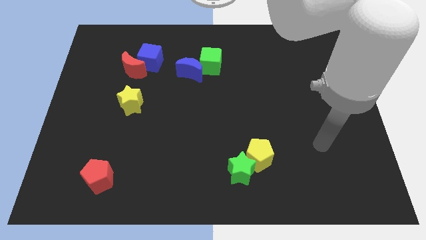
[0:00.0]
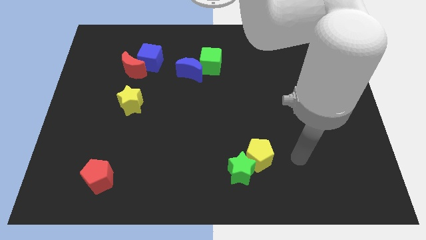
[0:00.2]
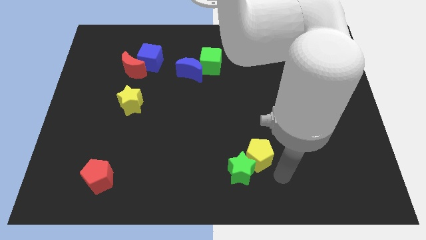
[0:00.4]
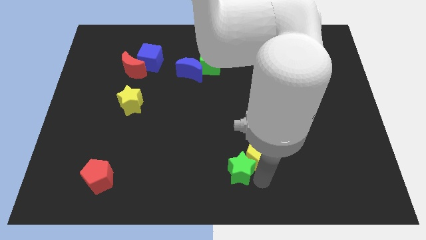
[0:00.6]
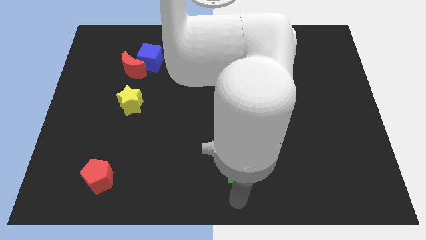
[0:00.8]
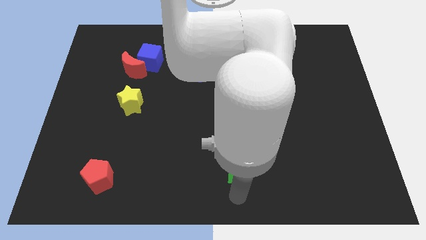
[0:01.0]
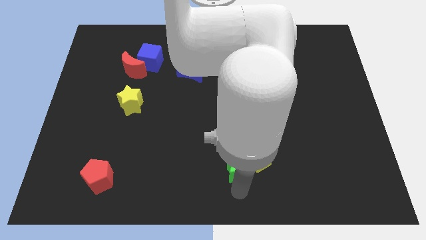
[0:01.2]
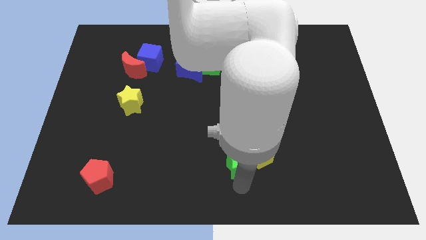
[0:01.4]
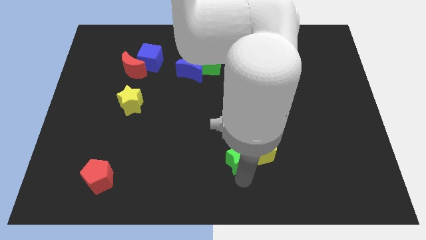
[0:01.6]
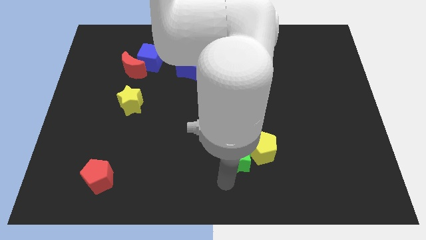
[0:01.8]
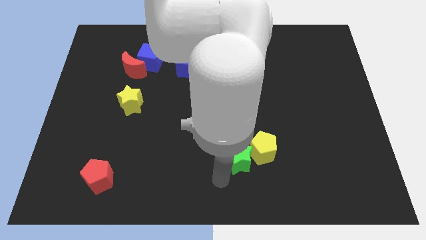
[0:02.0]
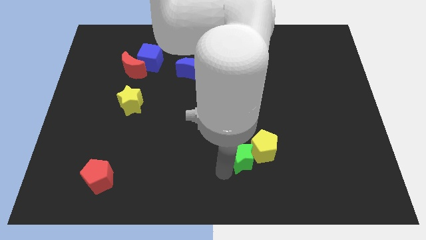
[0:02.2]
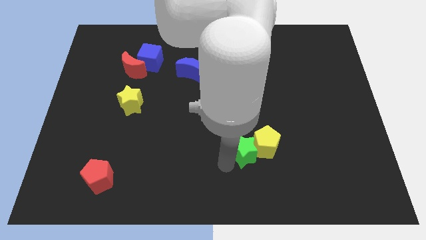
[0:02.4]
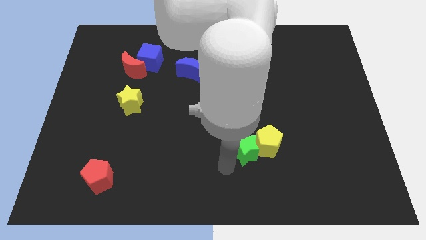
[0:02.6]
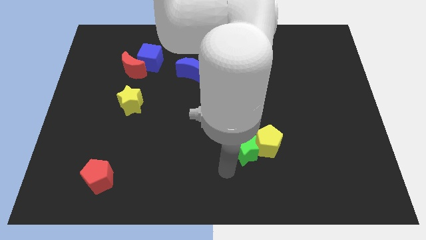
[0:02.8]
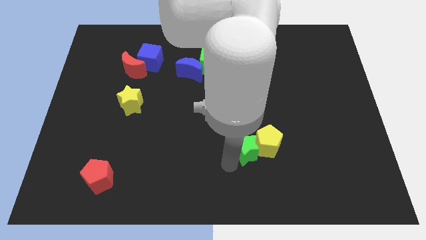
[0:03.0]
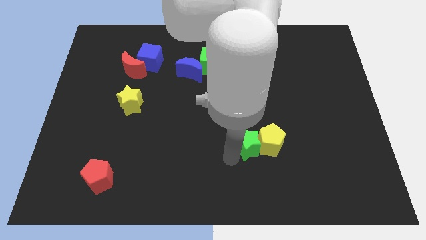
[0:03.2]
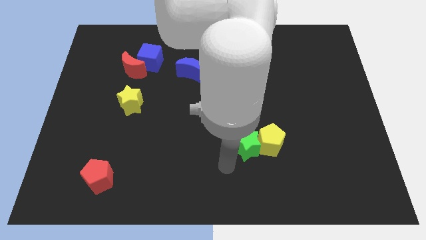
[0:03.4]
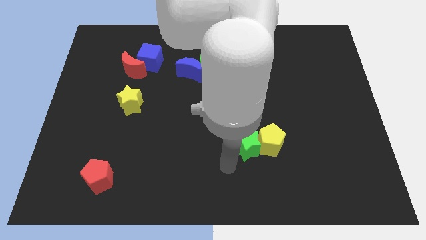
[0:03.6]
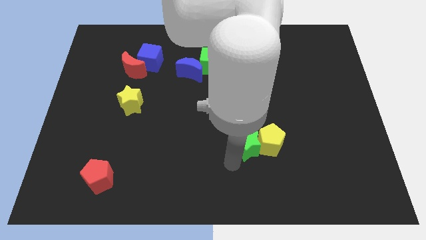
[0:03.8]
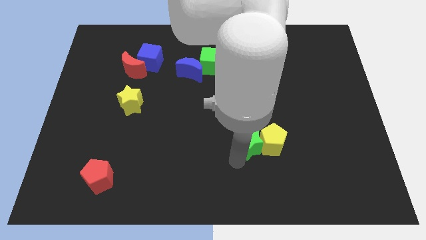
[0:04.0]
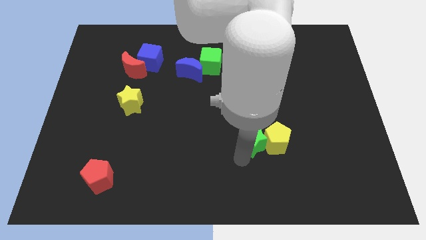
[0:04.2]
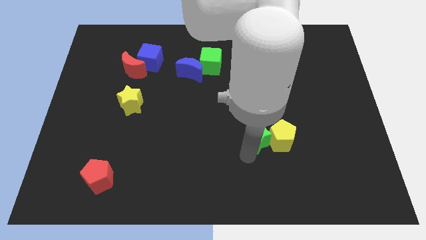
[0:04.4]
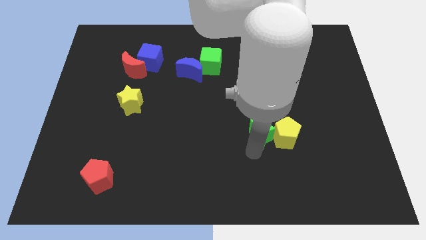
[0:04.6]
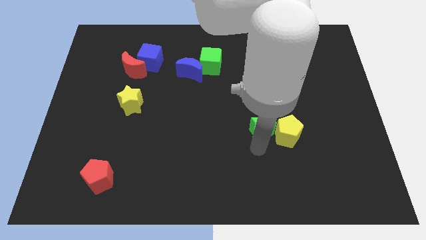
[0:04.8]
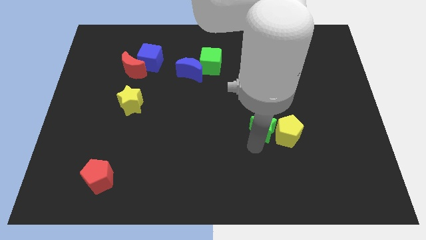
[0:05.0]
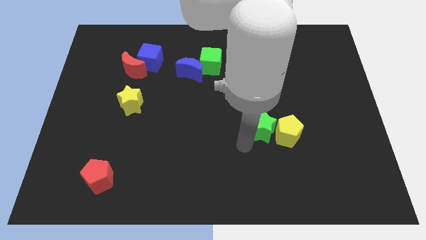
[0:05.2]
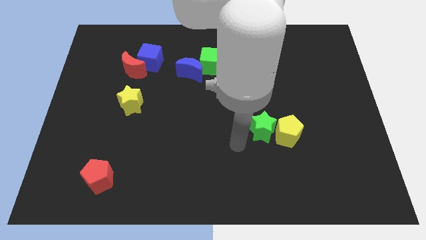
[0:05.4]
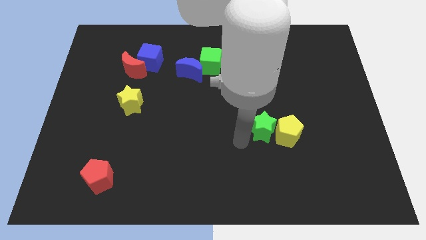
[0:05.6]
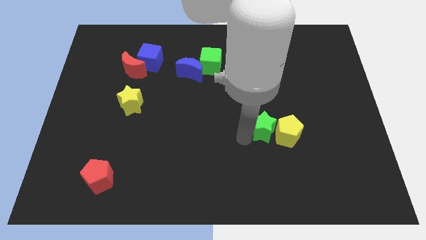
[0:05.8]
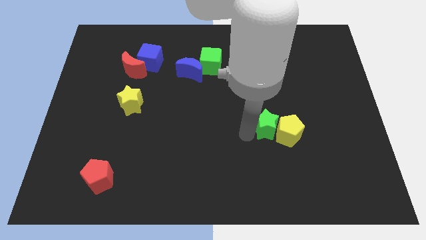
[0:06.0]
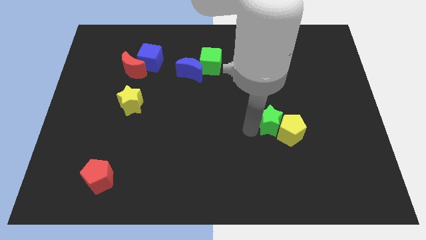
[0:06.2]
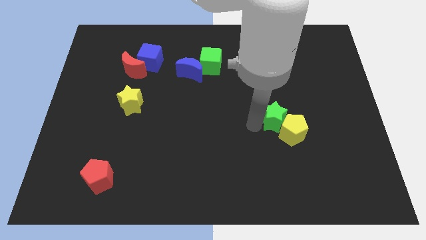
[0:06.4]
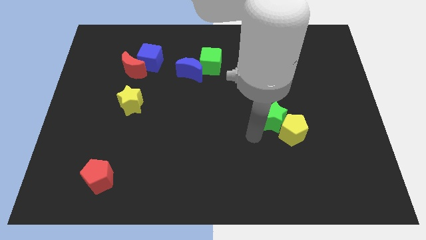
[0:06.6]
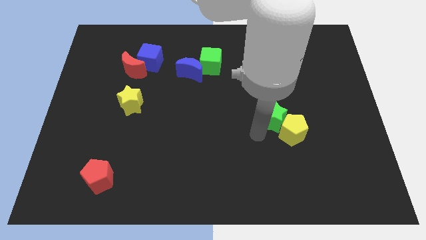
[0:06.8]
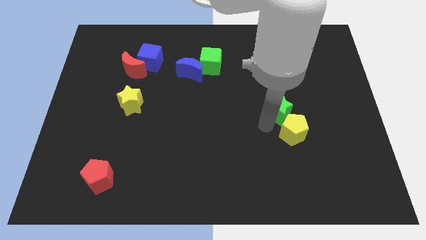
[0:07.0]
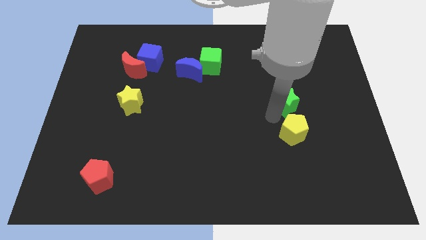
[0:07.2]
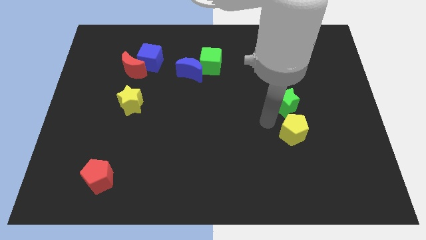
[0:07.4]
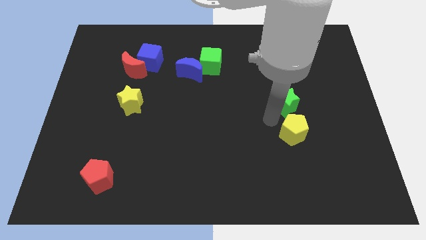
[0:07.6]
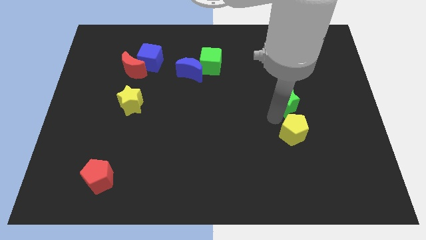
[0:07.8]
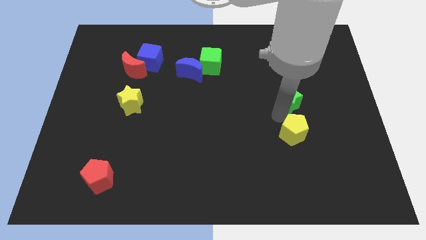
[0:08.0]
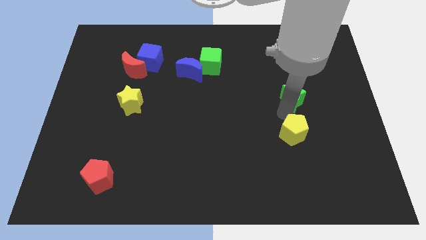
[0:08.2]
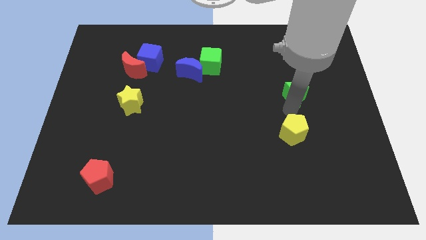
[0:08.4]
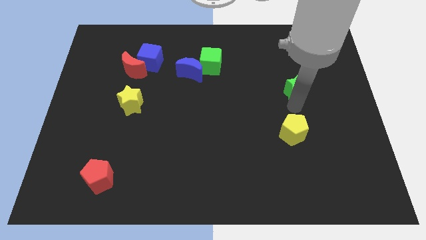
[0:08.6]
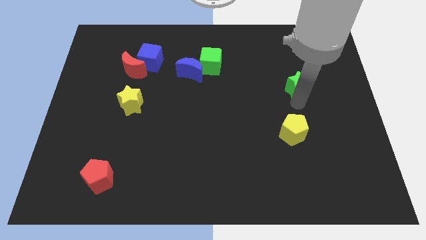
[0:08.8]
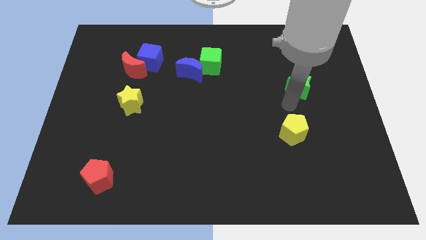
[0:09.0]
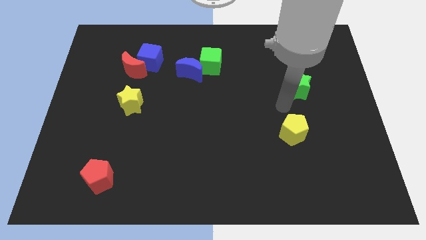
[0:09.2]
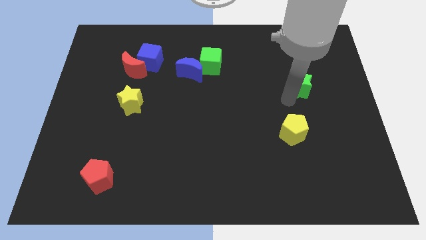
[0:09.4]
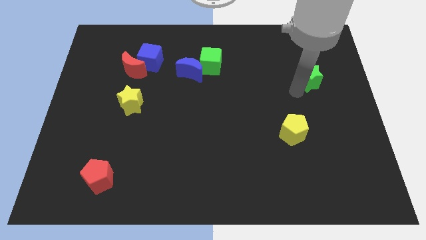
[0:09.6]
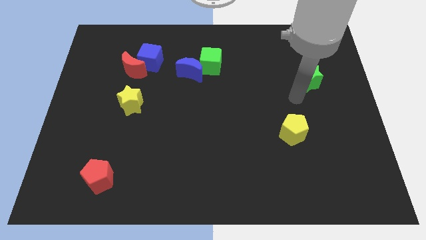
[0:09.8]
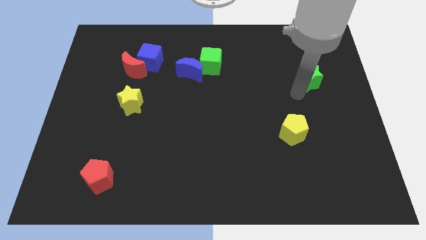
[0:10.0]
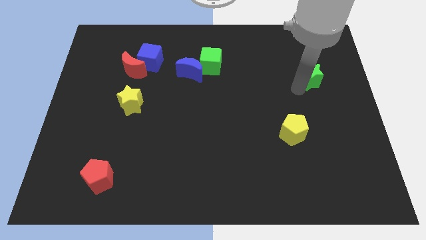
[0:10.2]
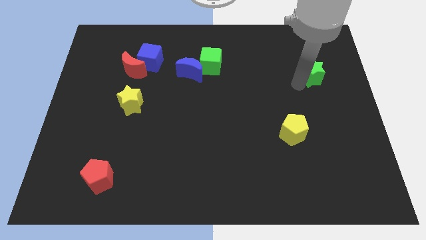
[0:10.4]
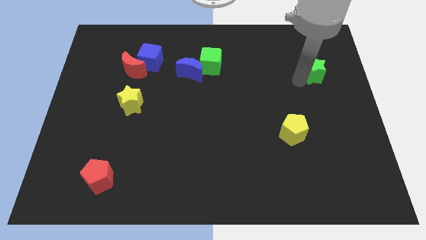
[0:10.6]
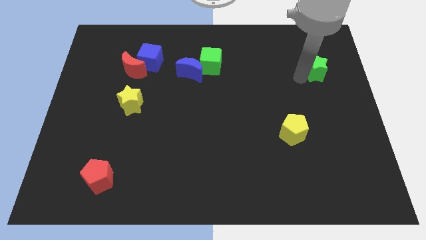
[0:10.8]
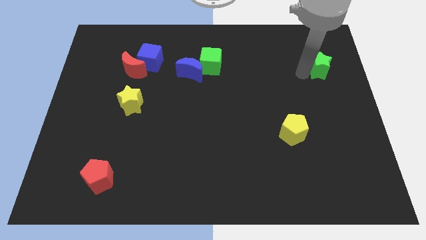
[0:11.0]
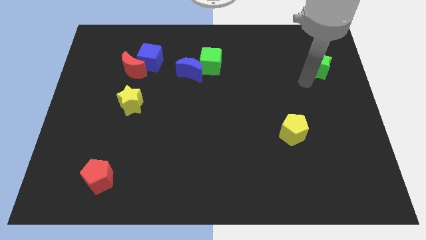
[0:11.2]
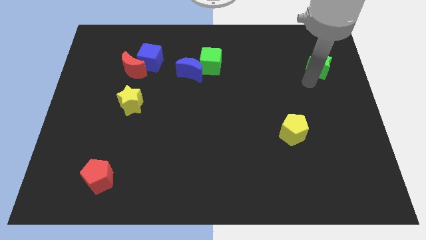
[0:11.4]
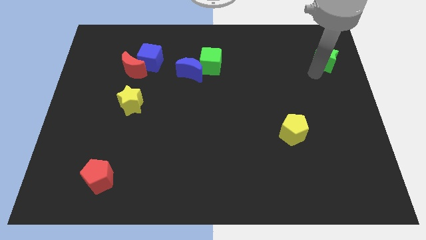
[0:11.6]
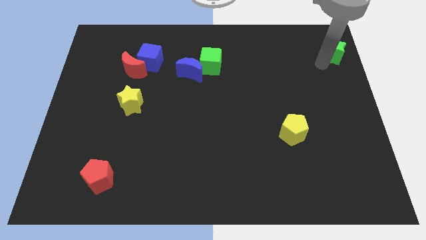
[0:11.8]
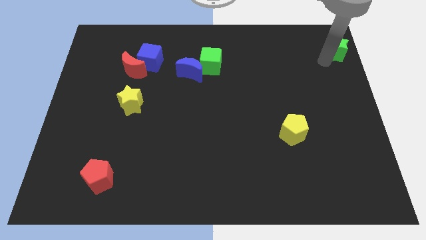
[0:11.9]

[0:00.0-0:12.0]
slide the green star to the upper right corner

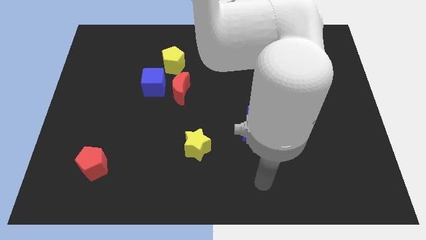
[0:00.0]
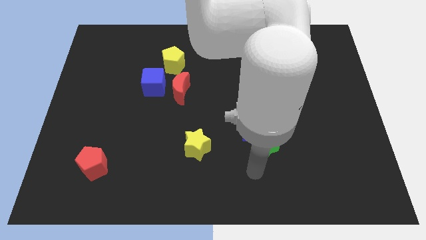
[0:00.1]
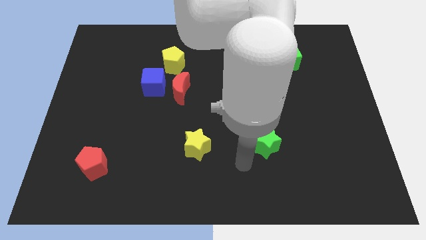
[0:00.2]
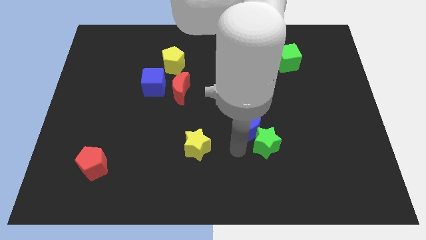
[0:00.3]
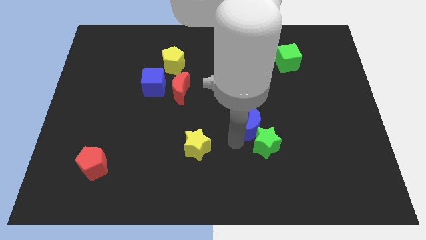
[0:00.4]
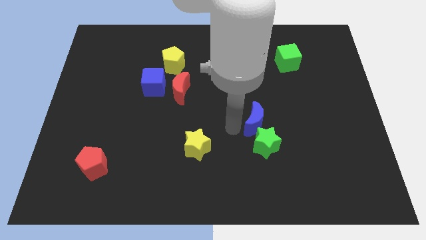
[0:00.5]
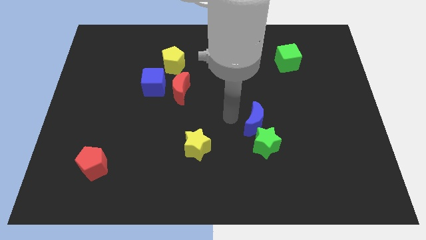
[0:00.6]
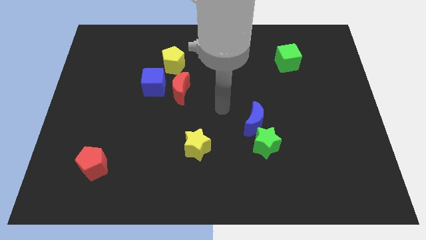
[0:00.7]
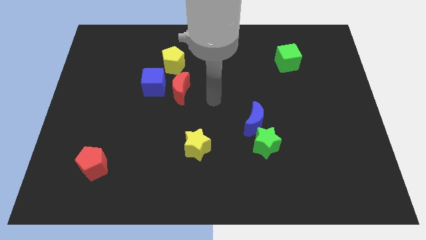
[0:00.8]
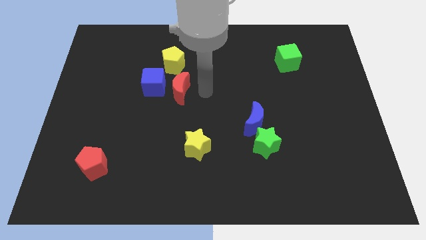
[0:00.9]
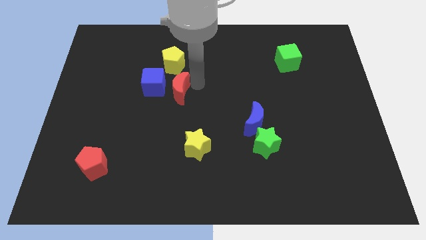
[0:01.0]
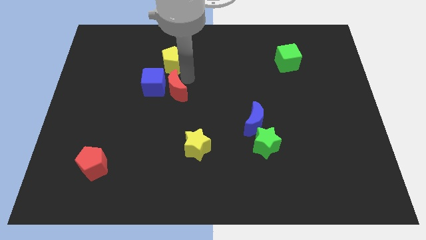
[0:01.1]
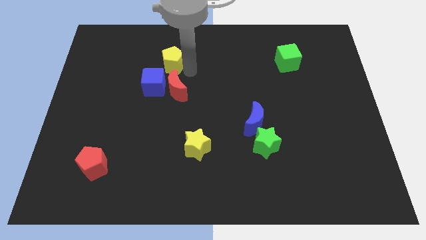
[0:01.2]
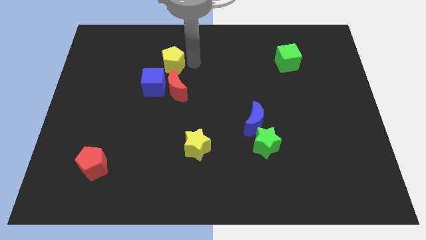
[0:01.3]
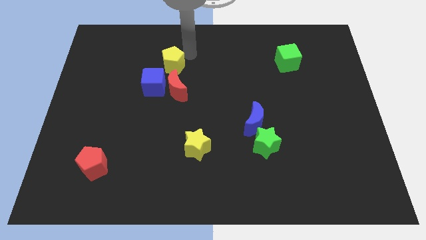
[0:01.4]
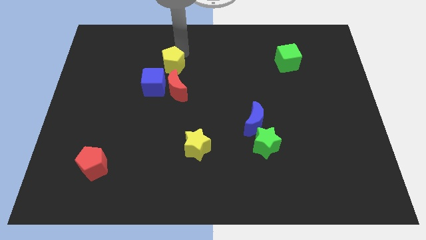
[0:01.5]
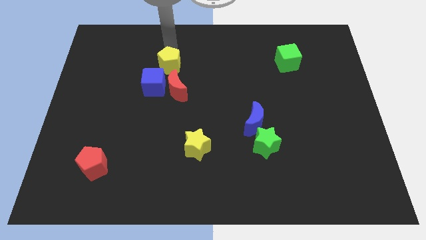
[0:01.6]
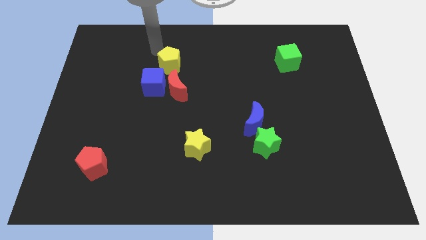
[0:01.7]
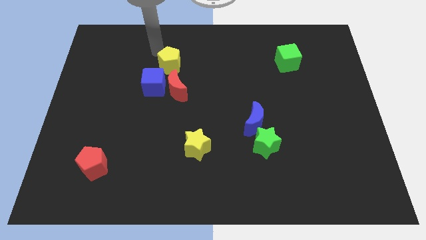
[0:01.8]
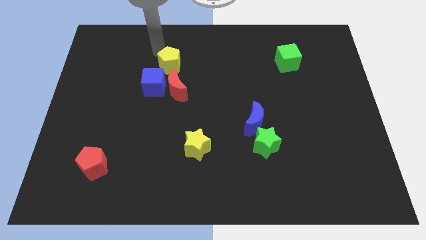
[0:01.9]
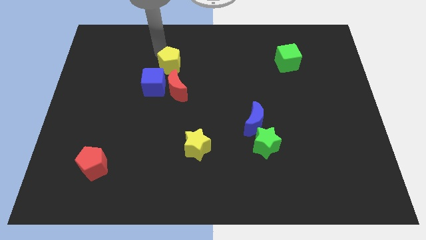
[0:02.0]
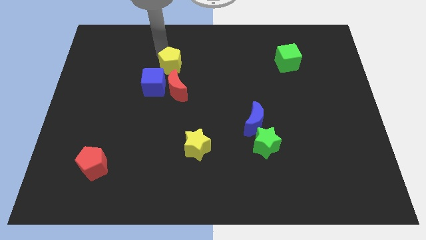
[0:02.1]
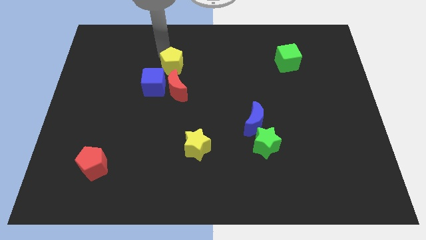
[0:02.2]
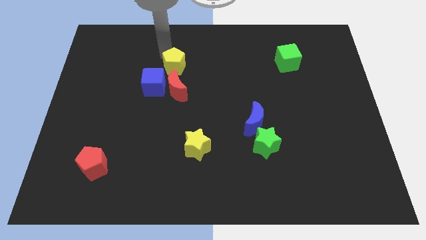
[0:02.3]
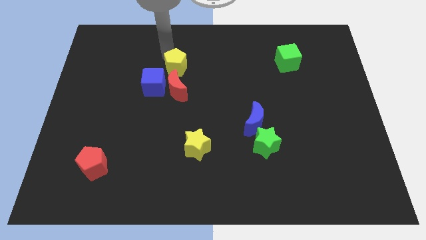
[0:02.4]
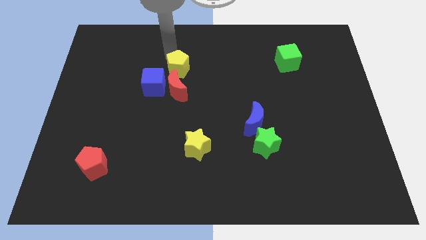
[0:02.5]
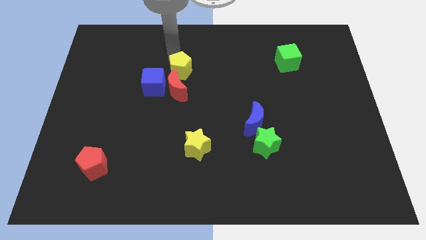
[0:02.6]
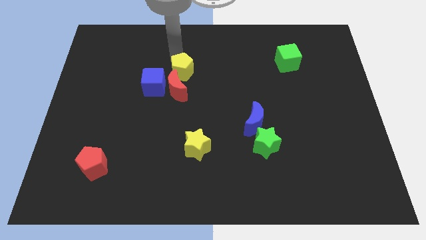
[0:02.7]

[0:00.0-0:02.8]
put the yellow pentagon to the middle
